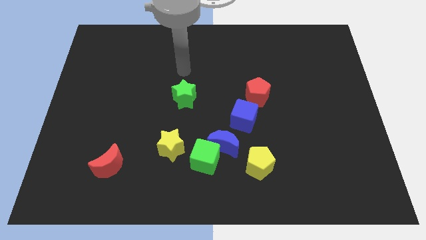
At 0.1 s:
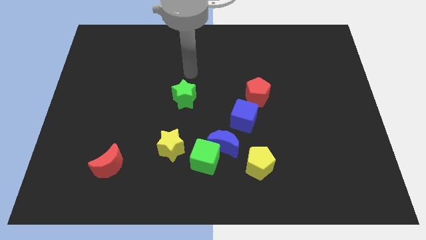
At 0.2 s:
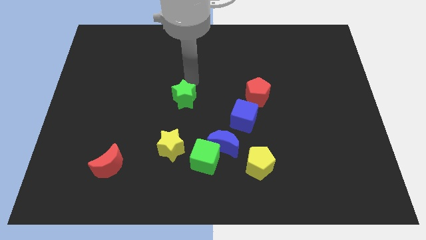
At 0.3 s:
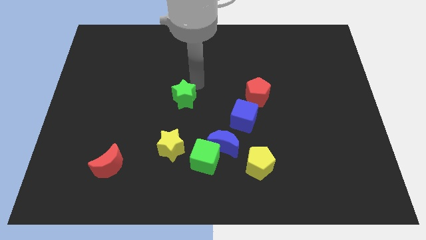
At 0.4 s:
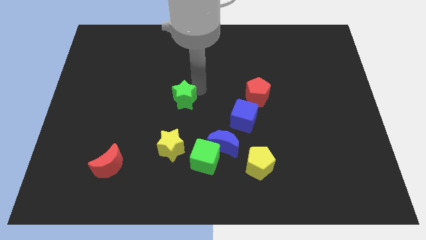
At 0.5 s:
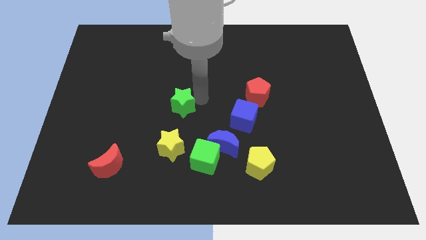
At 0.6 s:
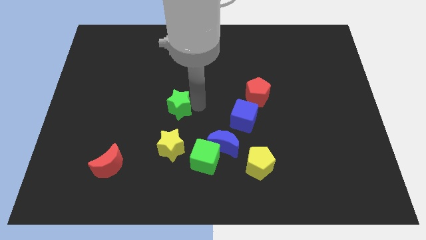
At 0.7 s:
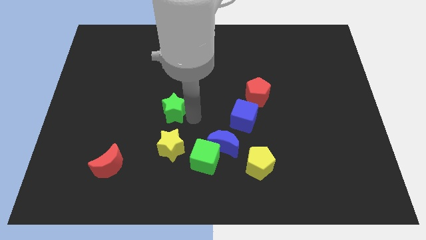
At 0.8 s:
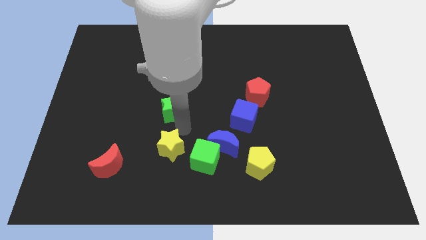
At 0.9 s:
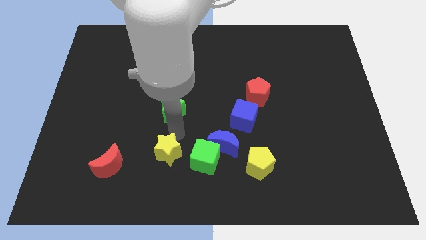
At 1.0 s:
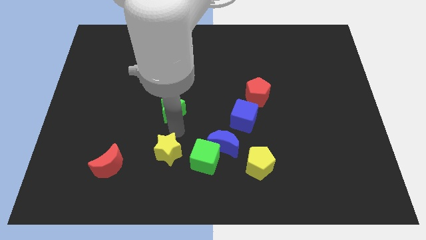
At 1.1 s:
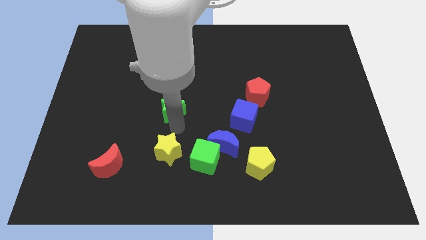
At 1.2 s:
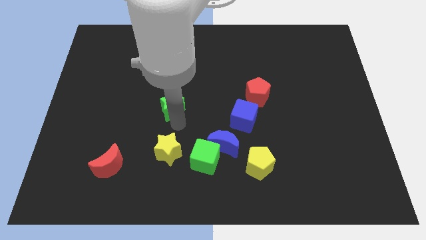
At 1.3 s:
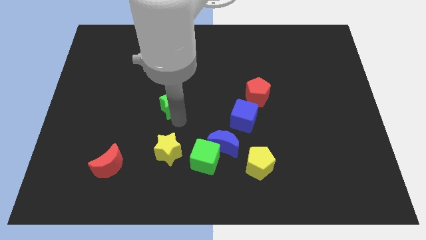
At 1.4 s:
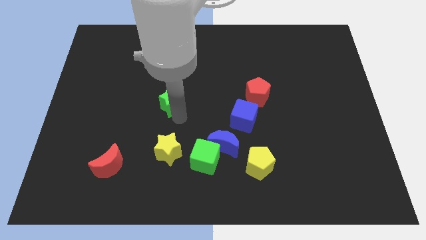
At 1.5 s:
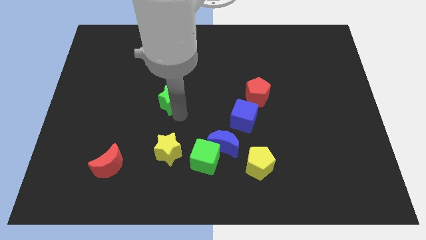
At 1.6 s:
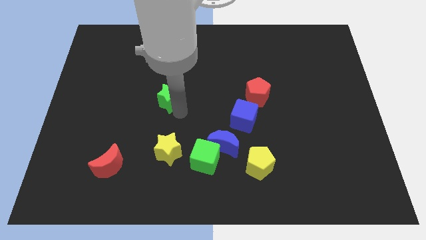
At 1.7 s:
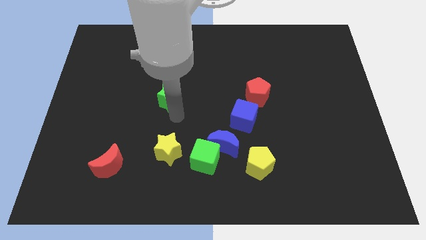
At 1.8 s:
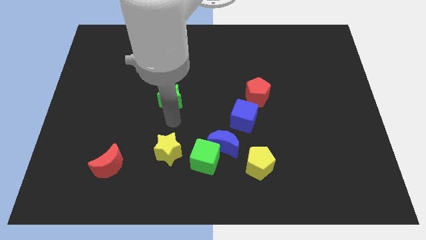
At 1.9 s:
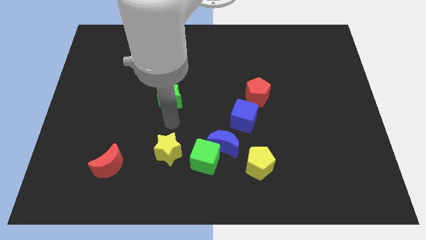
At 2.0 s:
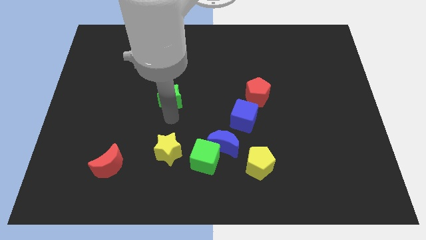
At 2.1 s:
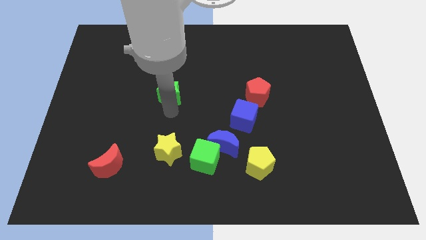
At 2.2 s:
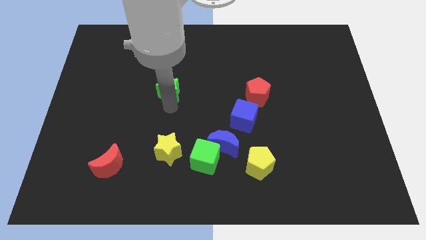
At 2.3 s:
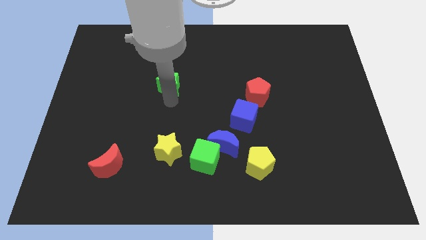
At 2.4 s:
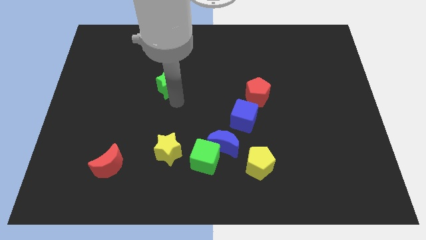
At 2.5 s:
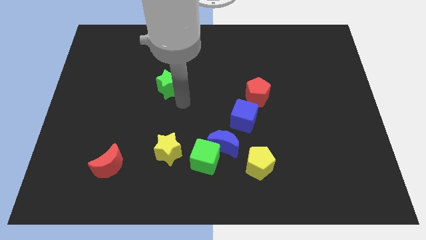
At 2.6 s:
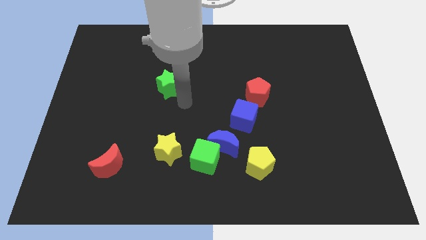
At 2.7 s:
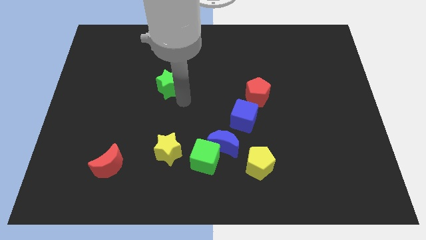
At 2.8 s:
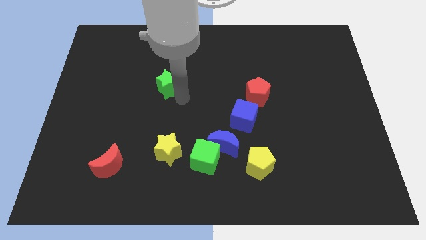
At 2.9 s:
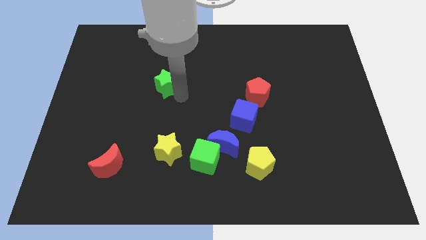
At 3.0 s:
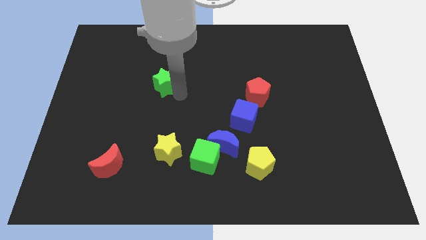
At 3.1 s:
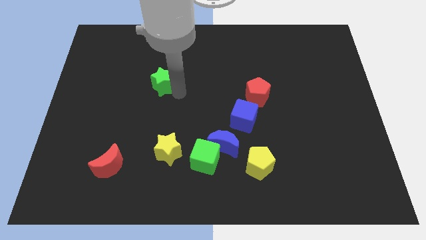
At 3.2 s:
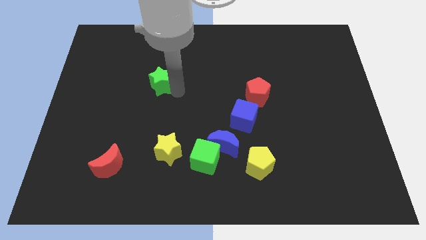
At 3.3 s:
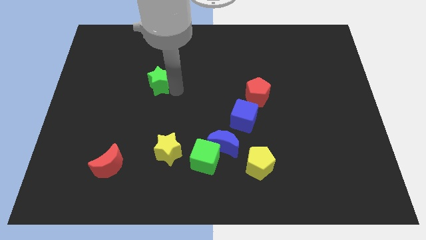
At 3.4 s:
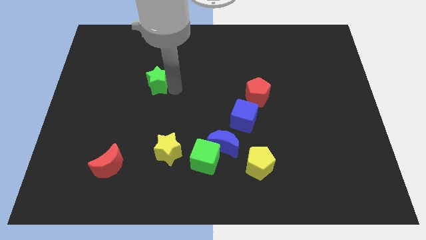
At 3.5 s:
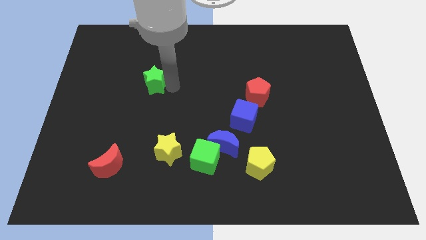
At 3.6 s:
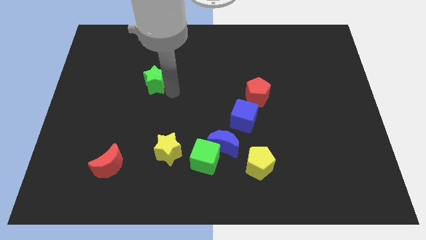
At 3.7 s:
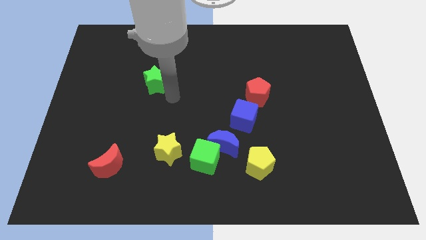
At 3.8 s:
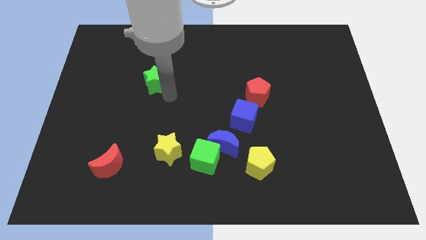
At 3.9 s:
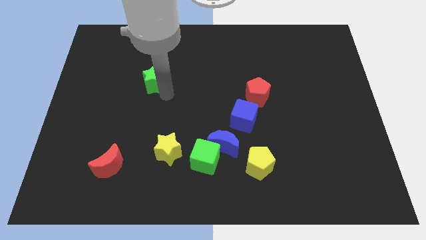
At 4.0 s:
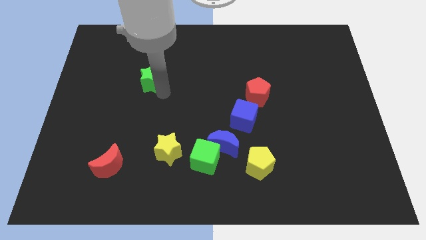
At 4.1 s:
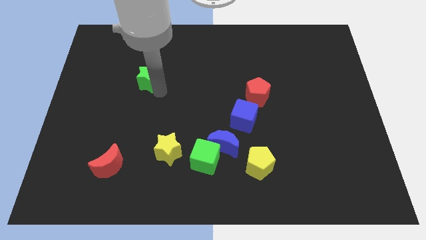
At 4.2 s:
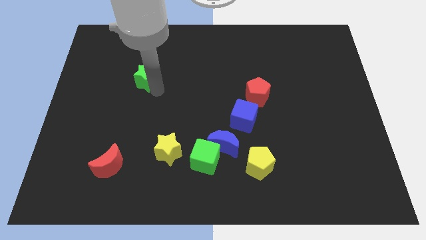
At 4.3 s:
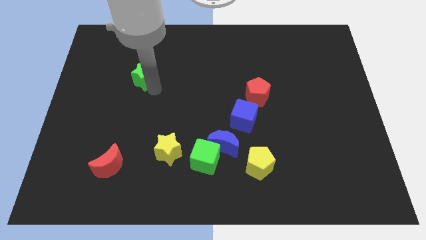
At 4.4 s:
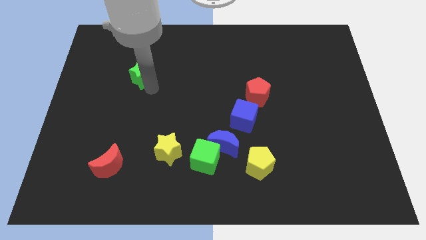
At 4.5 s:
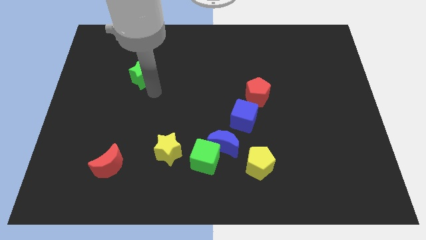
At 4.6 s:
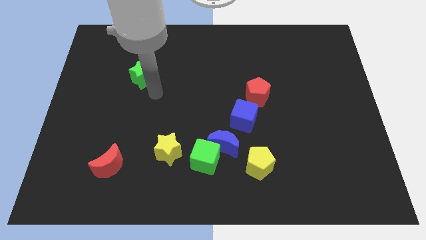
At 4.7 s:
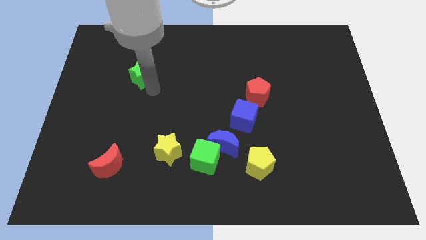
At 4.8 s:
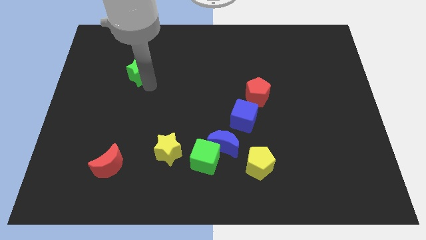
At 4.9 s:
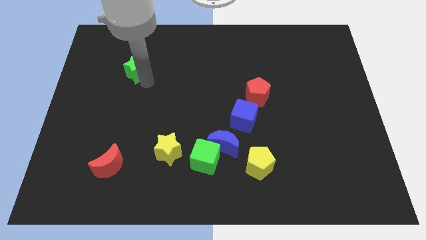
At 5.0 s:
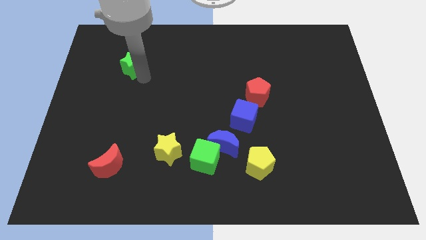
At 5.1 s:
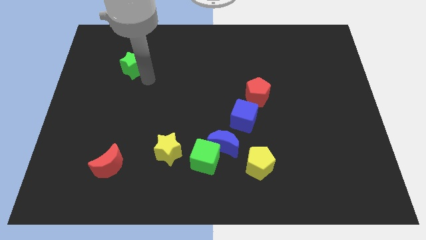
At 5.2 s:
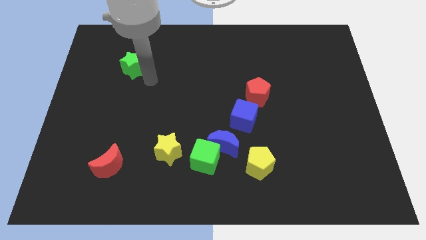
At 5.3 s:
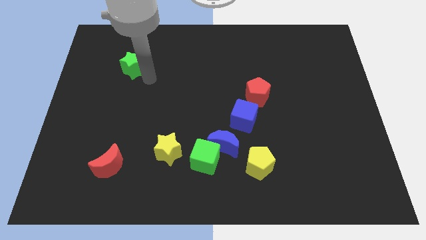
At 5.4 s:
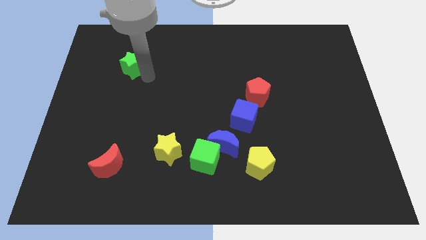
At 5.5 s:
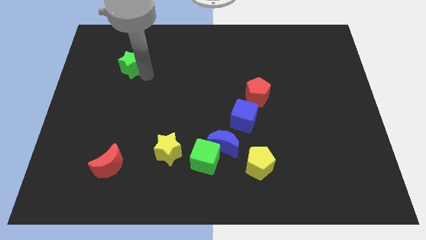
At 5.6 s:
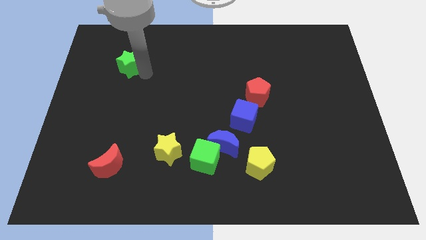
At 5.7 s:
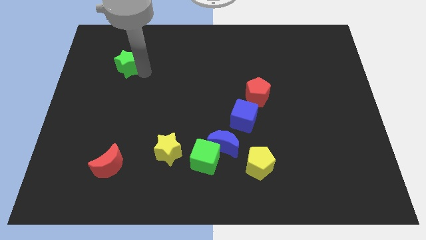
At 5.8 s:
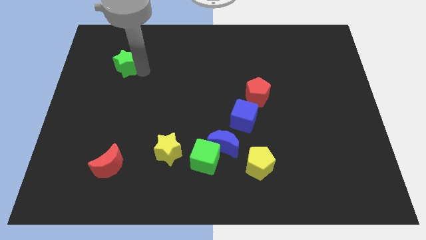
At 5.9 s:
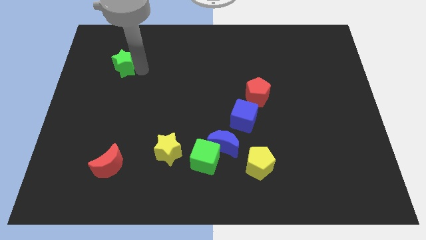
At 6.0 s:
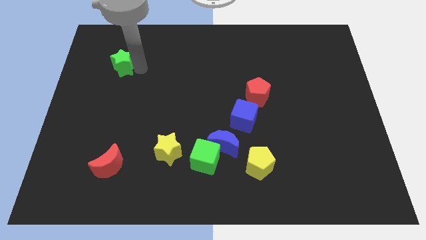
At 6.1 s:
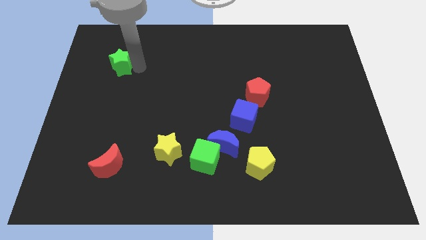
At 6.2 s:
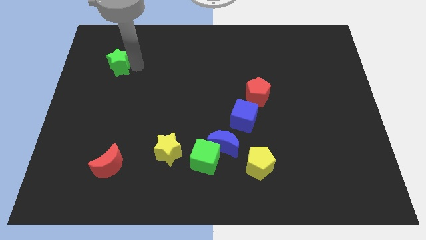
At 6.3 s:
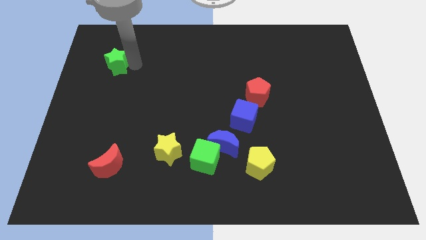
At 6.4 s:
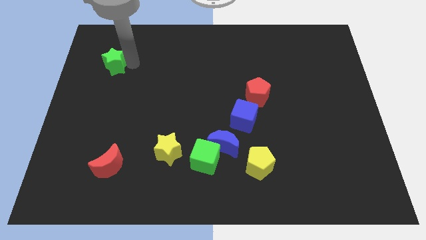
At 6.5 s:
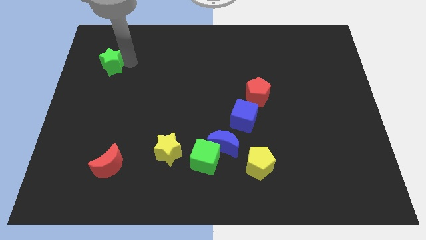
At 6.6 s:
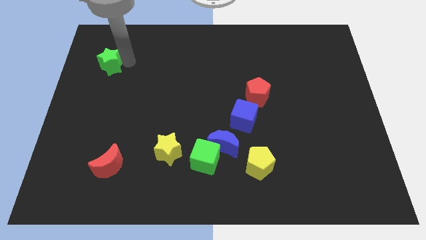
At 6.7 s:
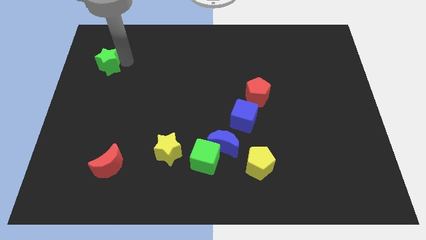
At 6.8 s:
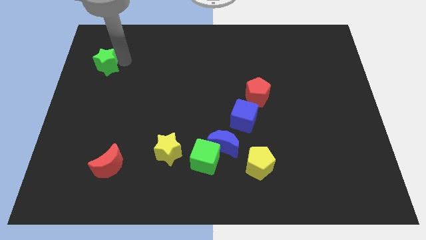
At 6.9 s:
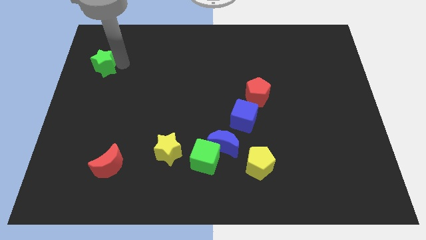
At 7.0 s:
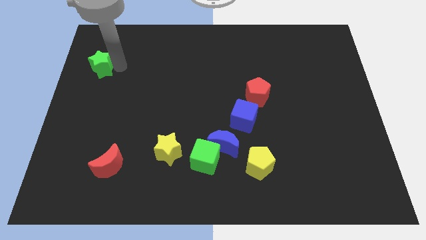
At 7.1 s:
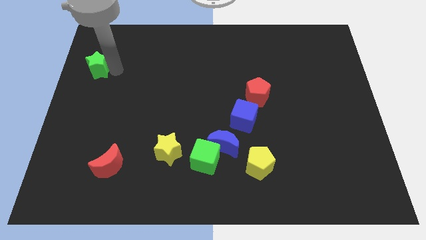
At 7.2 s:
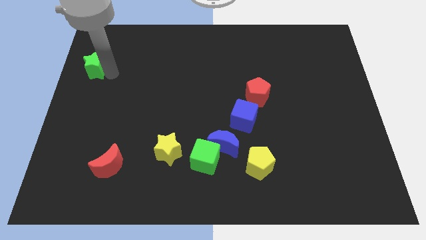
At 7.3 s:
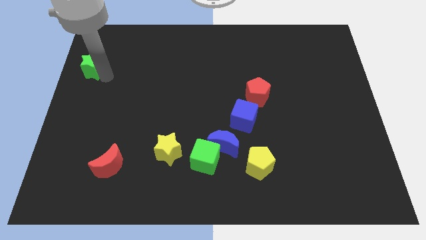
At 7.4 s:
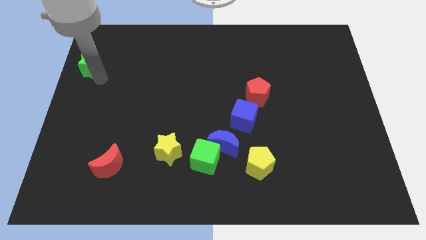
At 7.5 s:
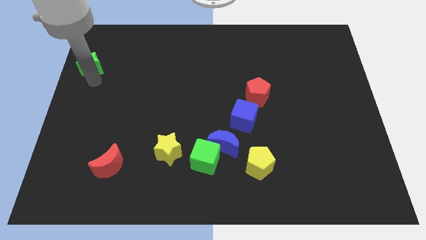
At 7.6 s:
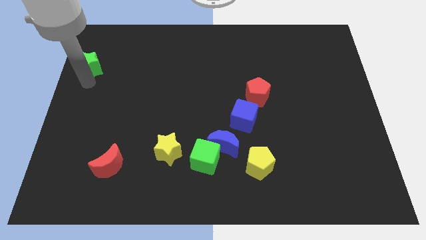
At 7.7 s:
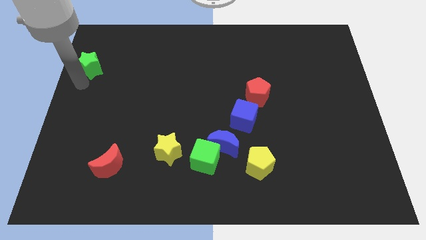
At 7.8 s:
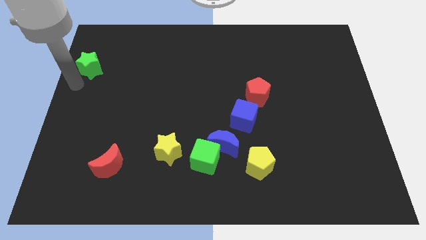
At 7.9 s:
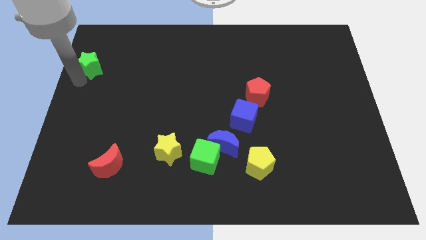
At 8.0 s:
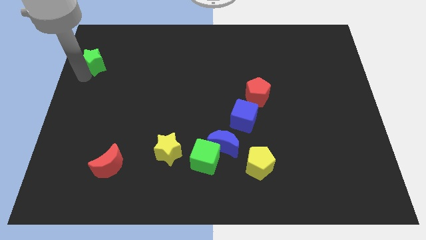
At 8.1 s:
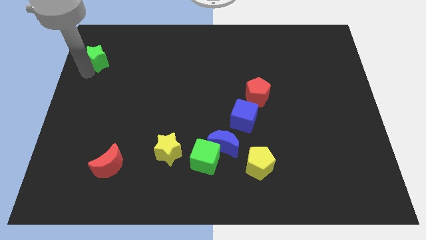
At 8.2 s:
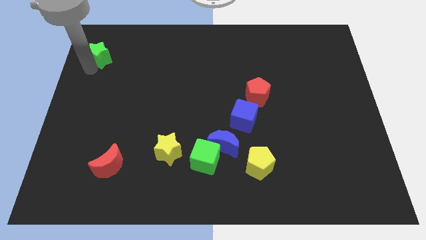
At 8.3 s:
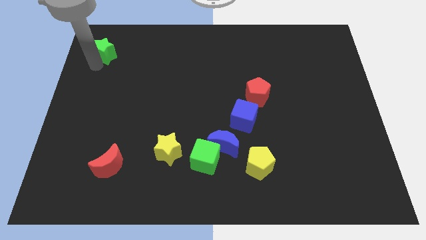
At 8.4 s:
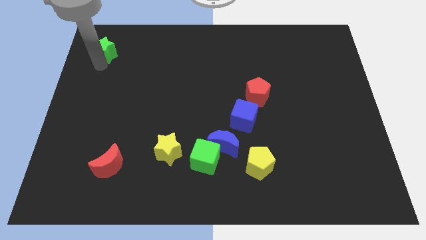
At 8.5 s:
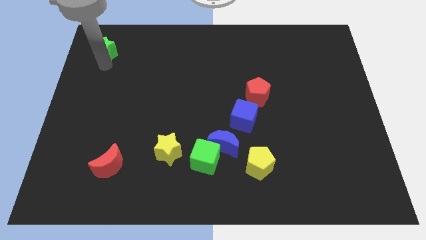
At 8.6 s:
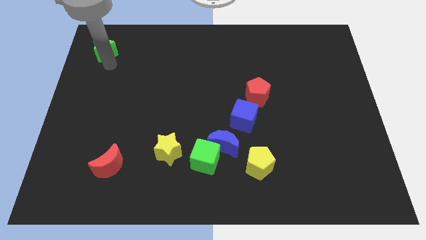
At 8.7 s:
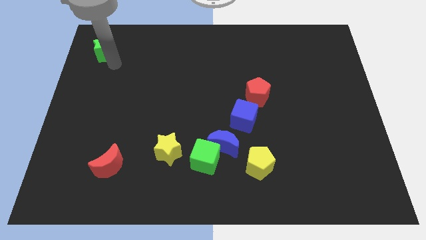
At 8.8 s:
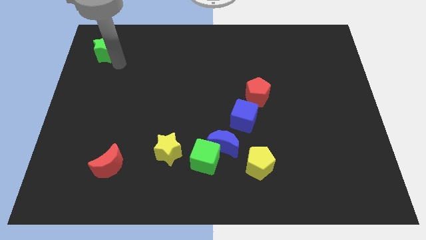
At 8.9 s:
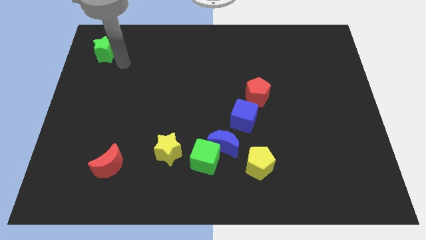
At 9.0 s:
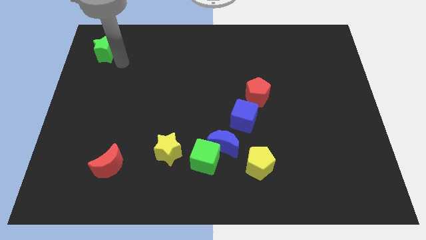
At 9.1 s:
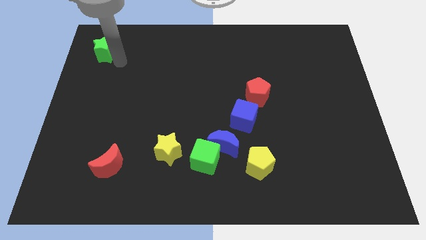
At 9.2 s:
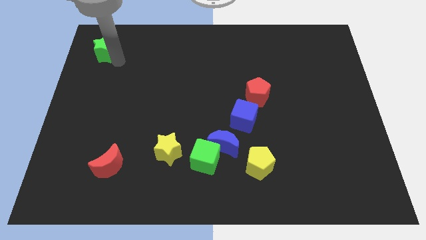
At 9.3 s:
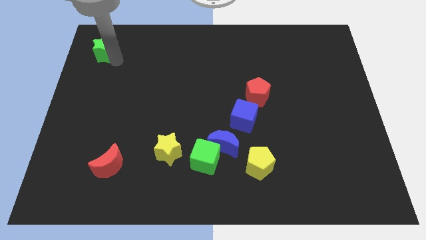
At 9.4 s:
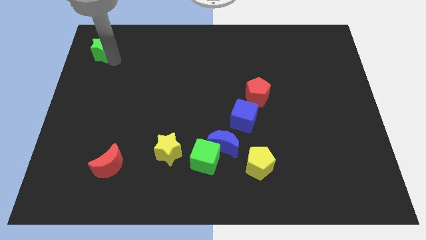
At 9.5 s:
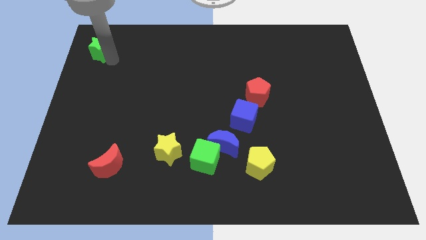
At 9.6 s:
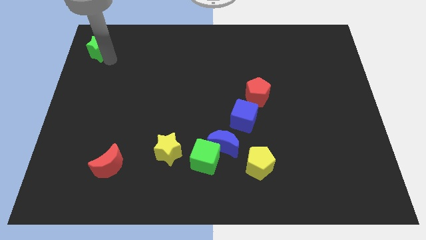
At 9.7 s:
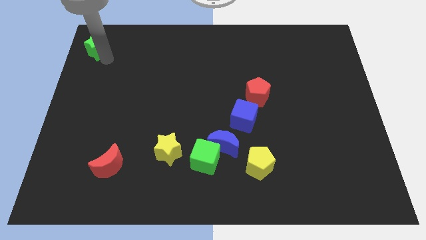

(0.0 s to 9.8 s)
slide the green star to the top left of the board
